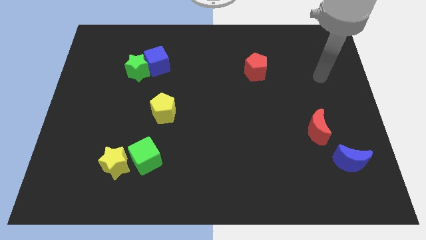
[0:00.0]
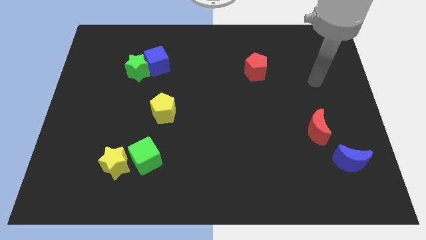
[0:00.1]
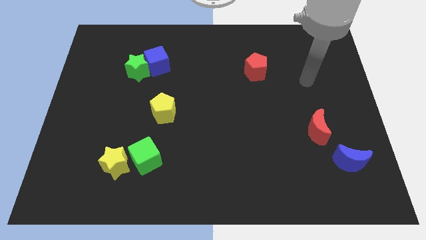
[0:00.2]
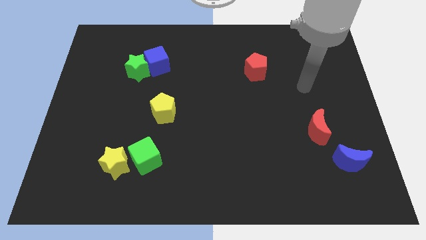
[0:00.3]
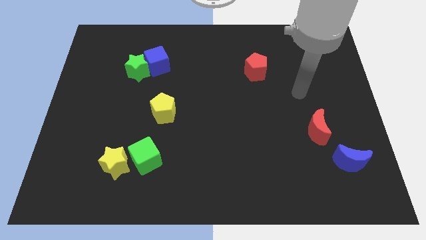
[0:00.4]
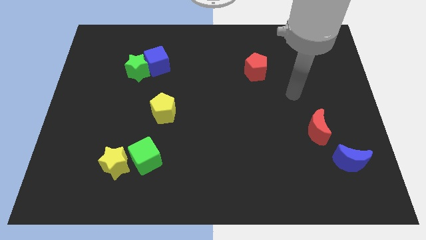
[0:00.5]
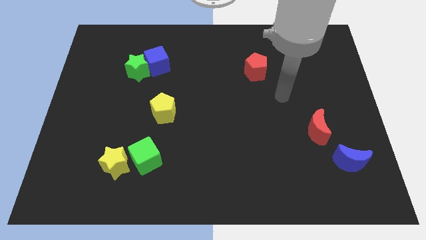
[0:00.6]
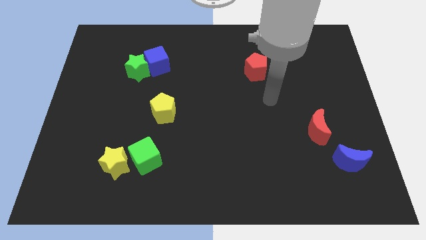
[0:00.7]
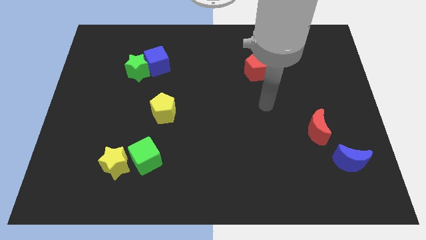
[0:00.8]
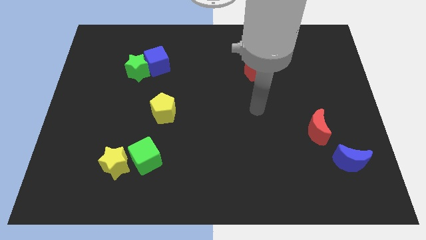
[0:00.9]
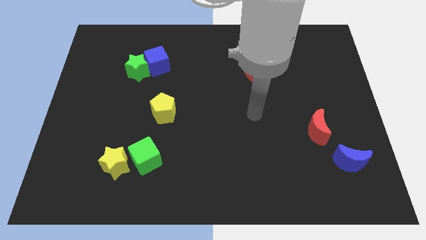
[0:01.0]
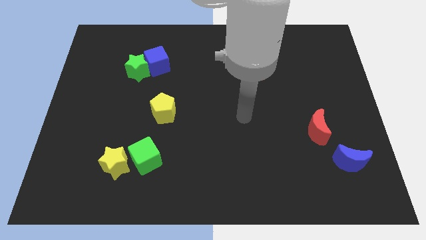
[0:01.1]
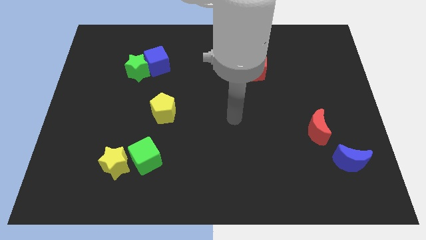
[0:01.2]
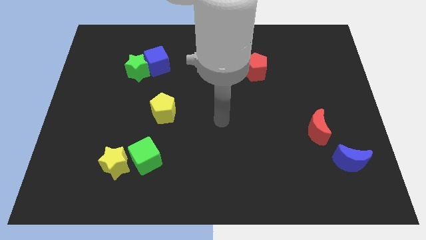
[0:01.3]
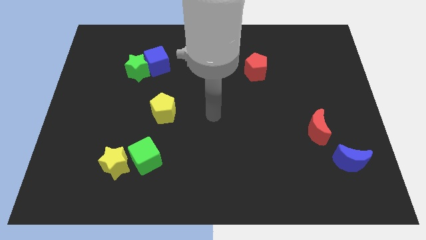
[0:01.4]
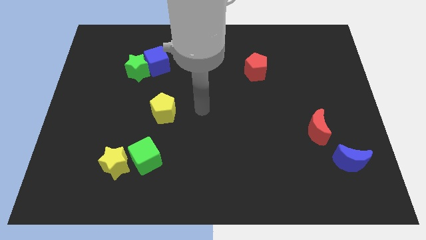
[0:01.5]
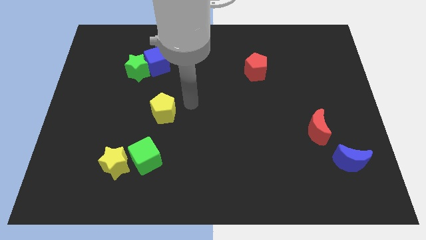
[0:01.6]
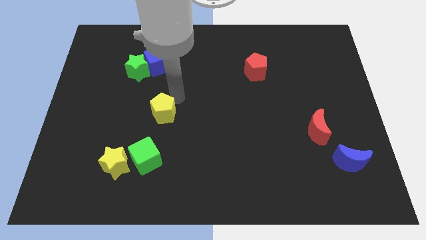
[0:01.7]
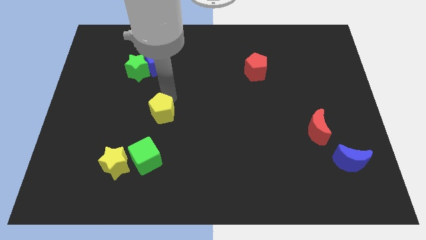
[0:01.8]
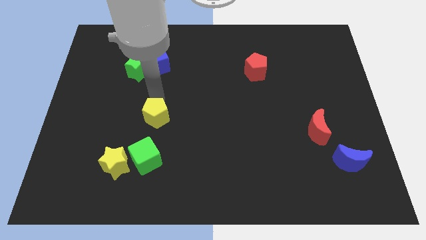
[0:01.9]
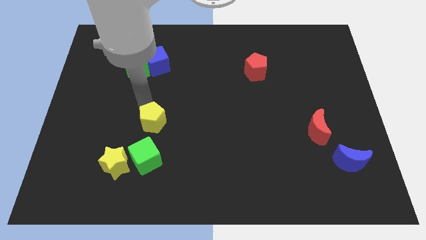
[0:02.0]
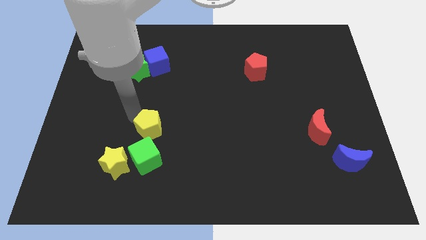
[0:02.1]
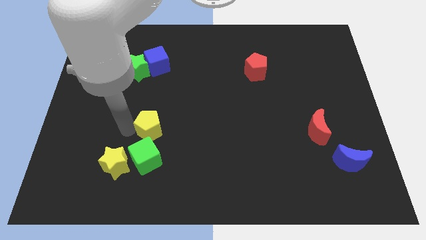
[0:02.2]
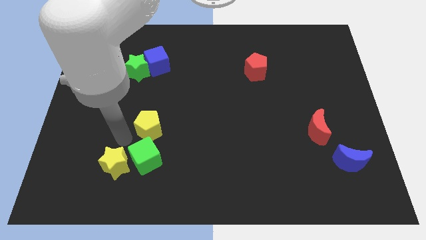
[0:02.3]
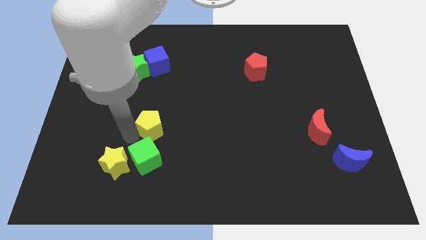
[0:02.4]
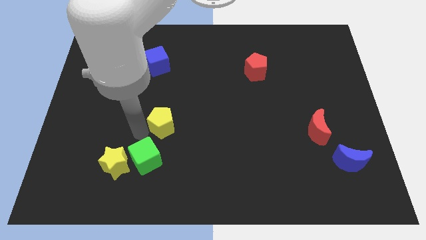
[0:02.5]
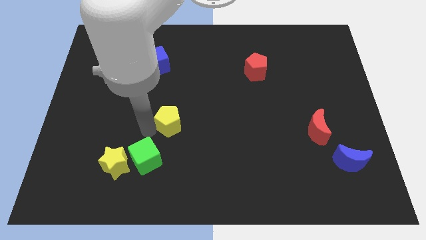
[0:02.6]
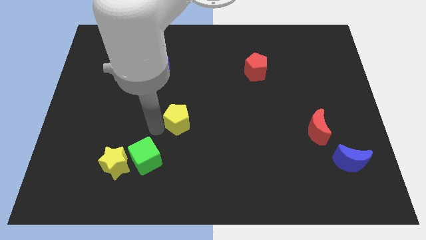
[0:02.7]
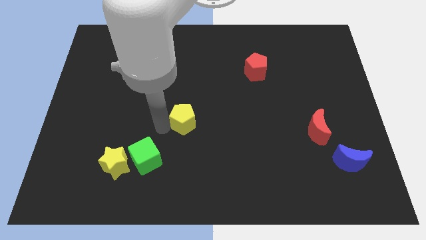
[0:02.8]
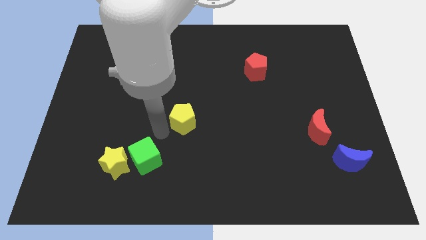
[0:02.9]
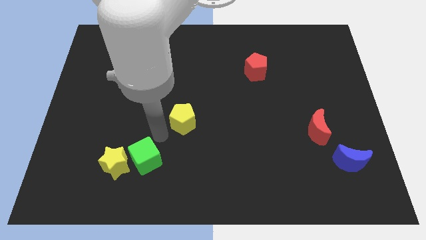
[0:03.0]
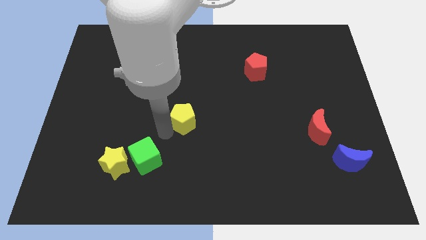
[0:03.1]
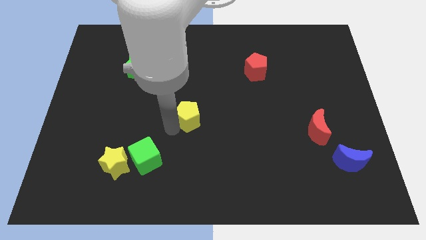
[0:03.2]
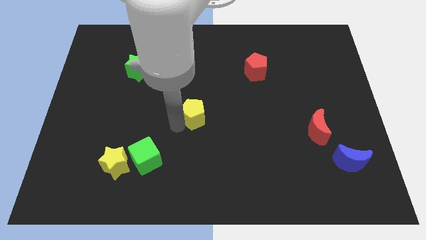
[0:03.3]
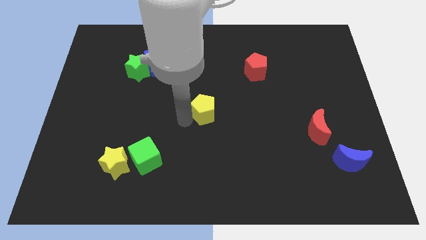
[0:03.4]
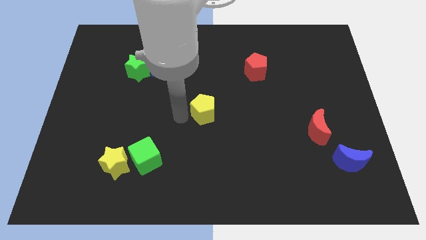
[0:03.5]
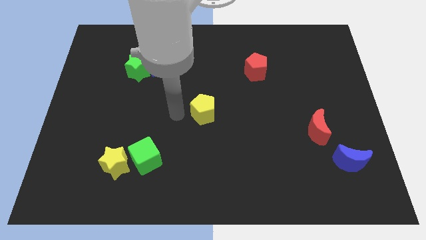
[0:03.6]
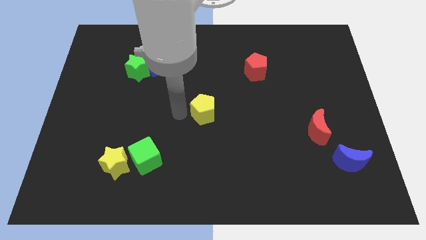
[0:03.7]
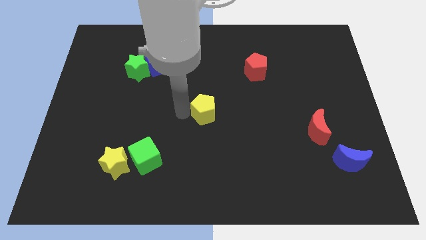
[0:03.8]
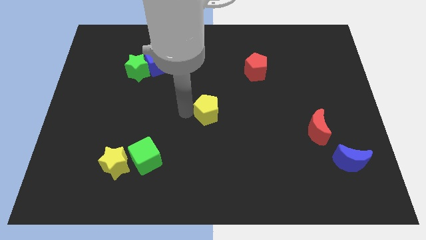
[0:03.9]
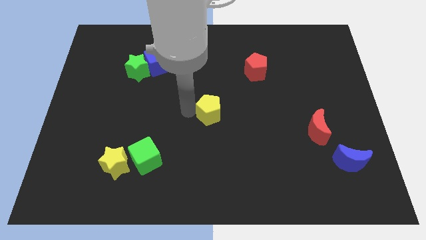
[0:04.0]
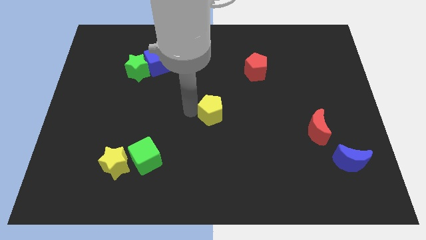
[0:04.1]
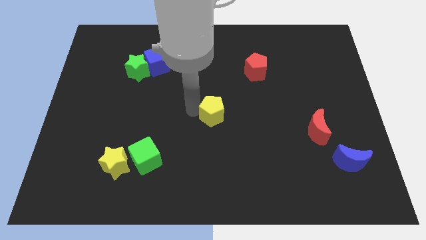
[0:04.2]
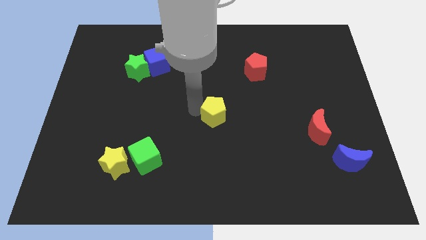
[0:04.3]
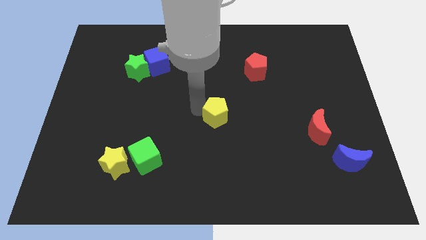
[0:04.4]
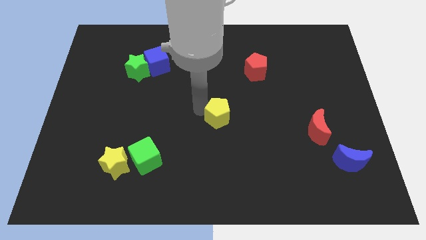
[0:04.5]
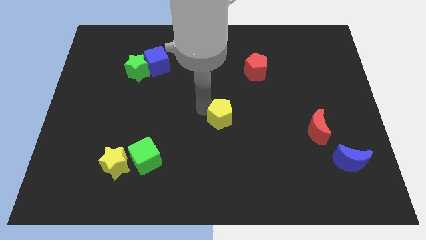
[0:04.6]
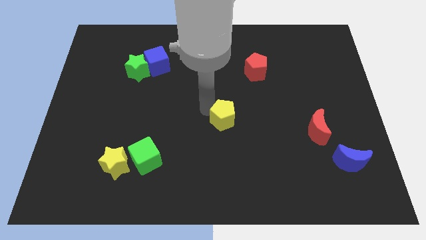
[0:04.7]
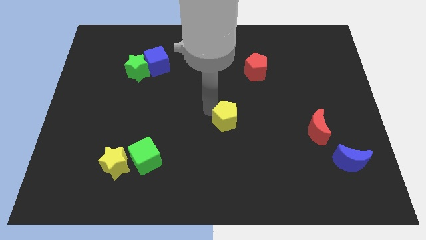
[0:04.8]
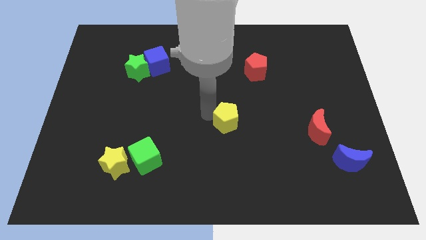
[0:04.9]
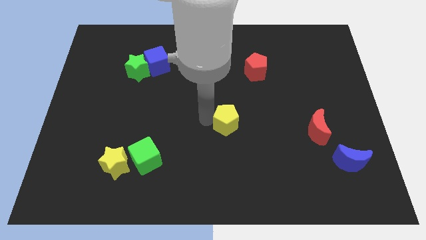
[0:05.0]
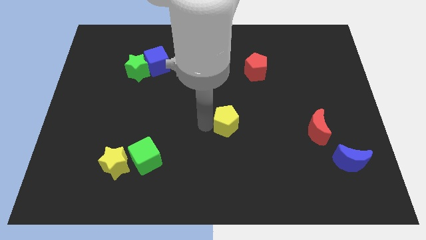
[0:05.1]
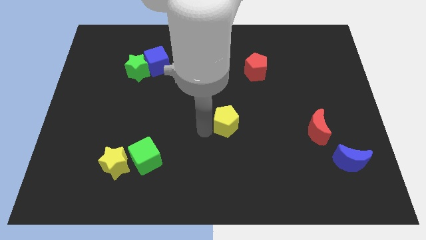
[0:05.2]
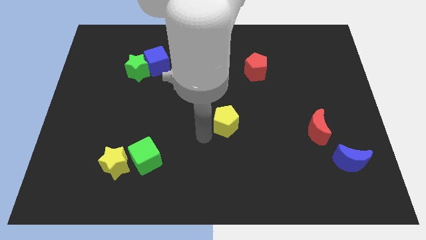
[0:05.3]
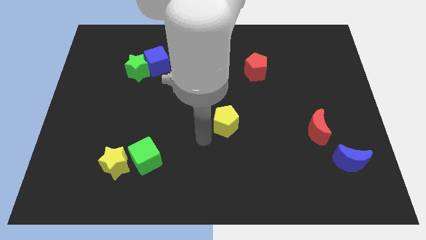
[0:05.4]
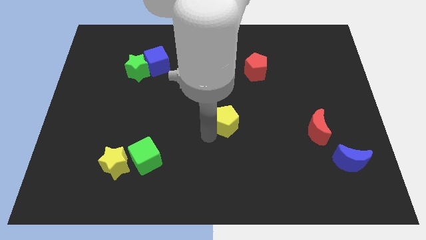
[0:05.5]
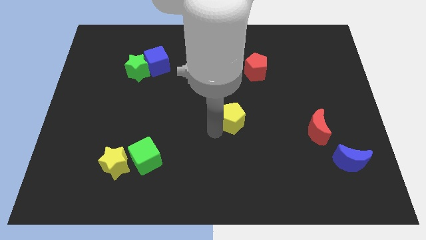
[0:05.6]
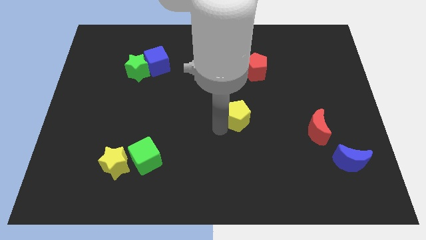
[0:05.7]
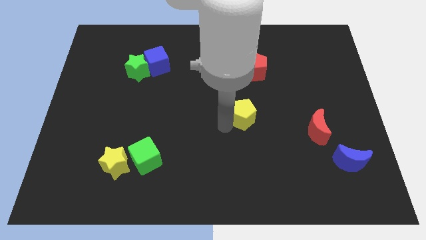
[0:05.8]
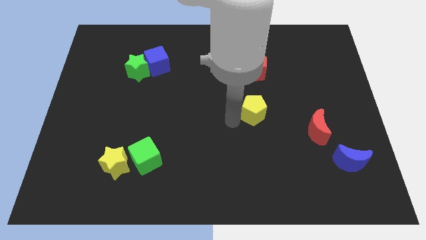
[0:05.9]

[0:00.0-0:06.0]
slide the yellow pentagon right

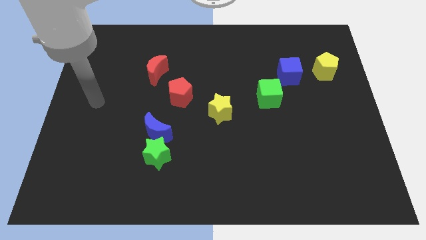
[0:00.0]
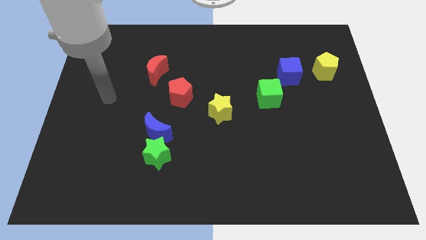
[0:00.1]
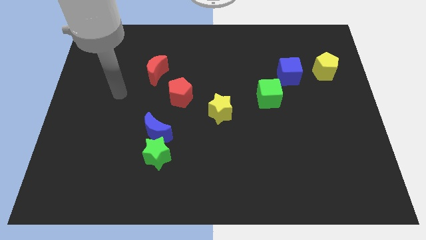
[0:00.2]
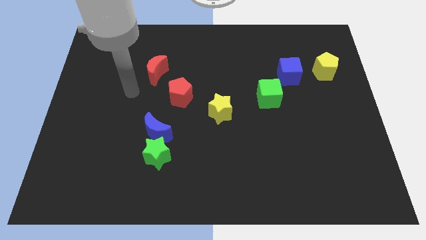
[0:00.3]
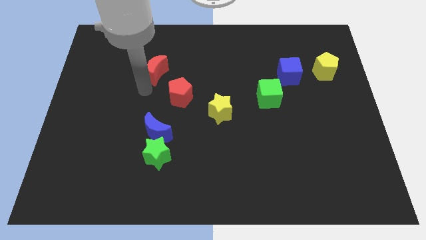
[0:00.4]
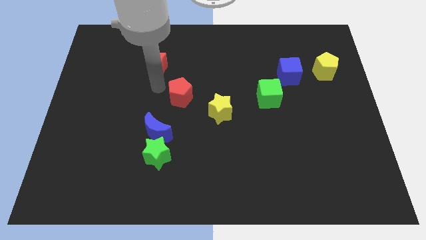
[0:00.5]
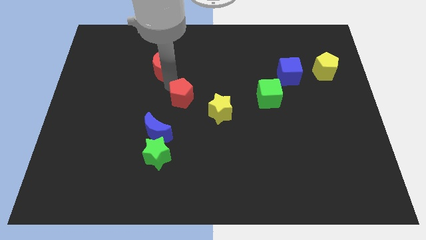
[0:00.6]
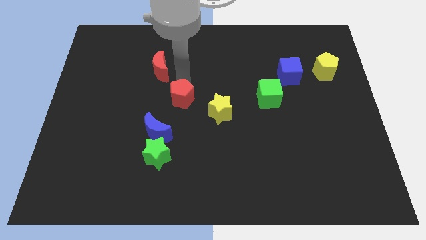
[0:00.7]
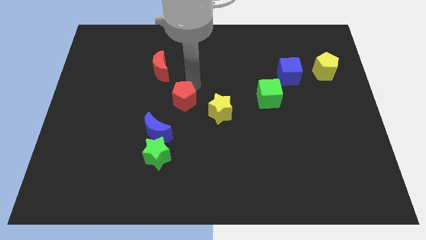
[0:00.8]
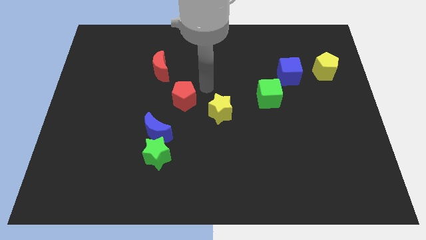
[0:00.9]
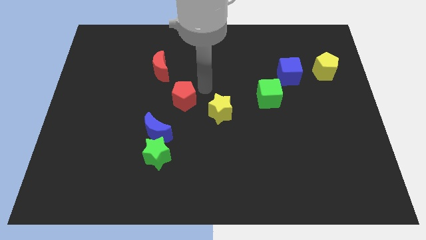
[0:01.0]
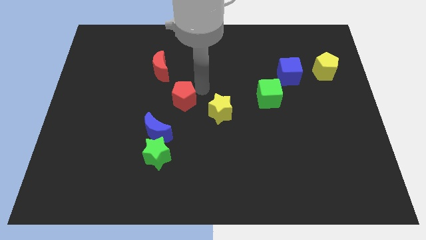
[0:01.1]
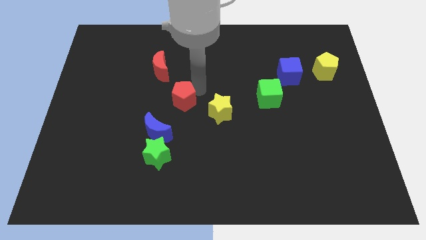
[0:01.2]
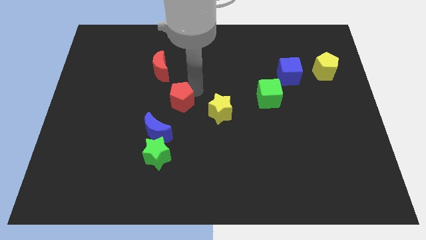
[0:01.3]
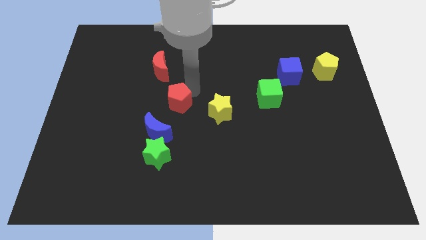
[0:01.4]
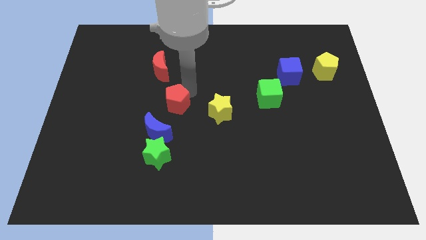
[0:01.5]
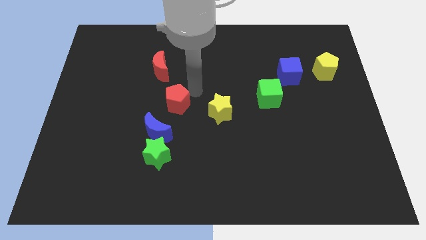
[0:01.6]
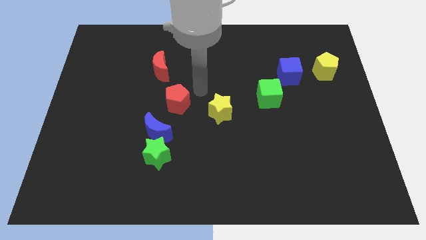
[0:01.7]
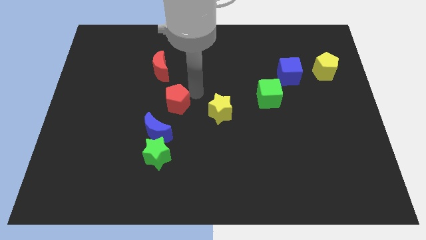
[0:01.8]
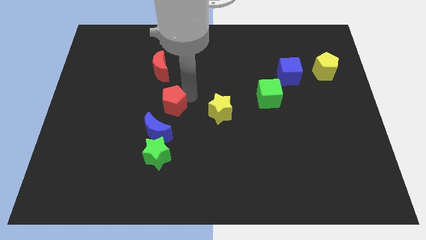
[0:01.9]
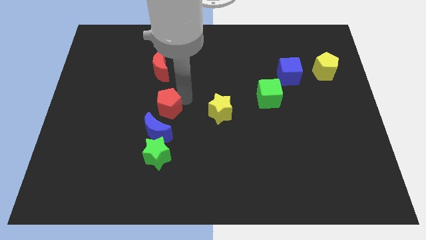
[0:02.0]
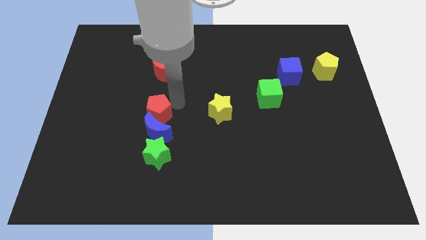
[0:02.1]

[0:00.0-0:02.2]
slightly push the red pentagon down and to the left diagonally
